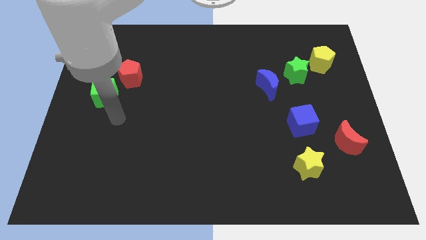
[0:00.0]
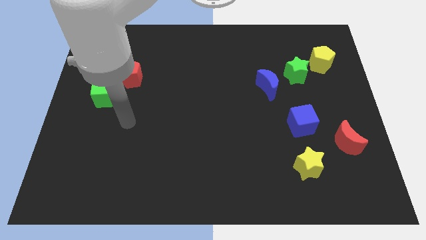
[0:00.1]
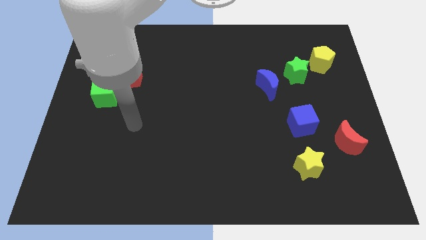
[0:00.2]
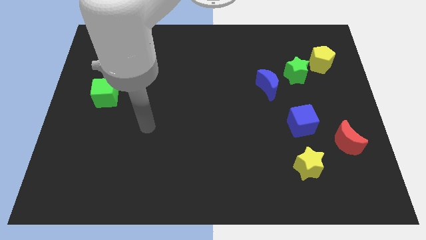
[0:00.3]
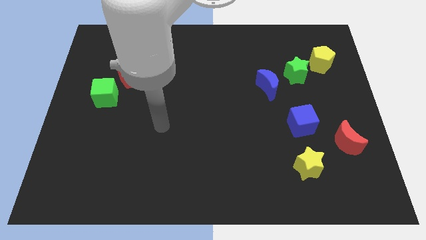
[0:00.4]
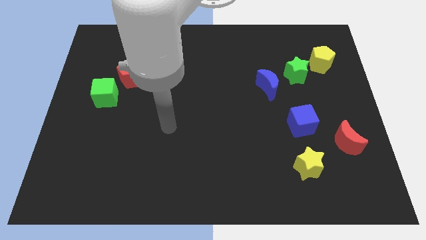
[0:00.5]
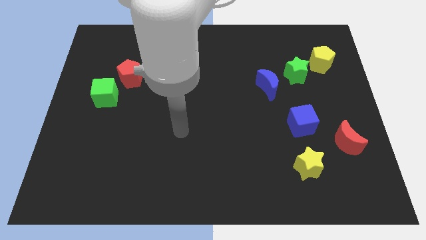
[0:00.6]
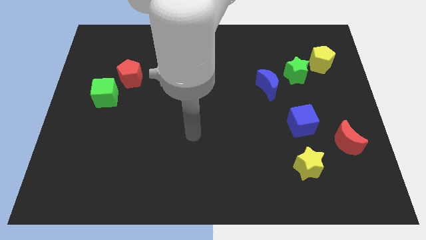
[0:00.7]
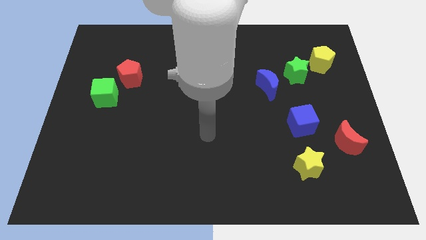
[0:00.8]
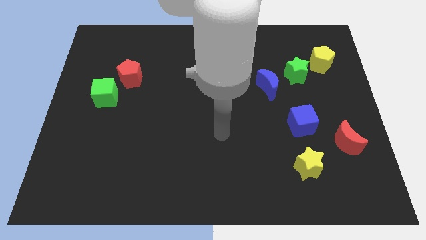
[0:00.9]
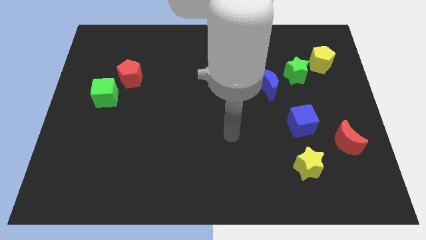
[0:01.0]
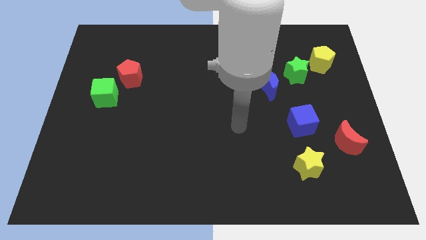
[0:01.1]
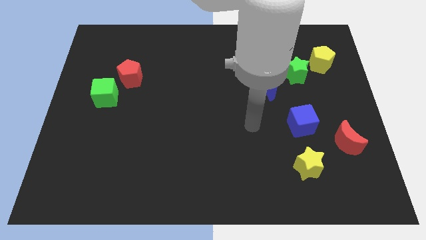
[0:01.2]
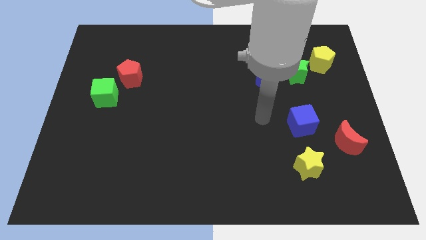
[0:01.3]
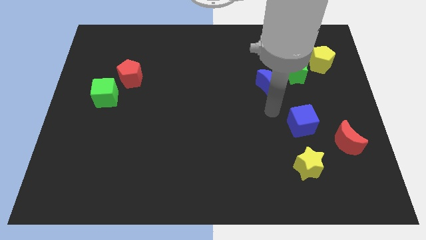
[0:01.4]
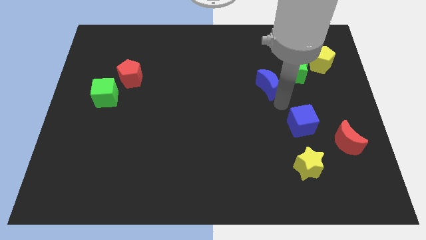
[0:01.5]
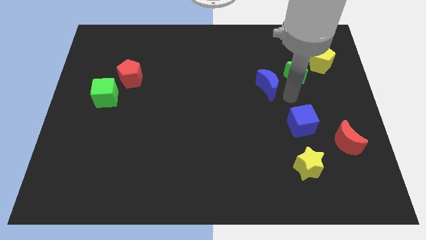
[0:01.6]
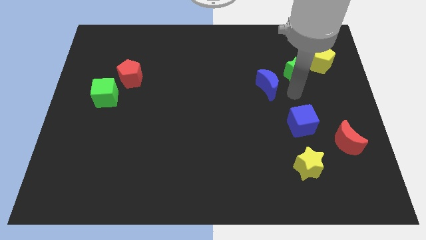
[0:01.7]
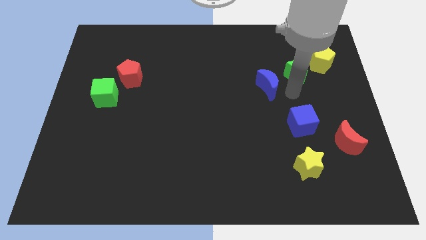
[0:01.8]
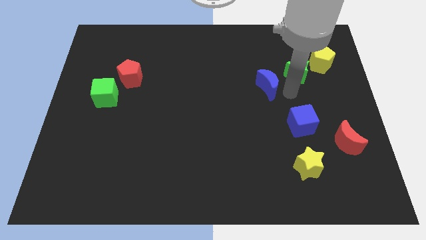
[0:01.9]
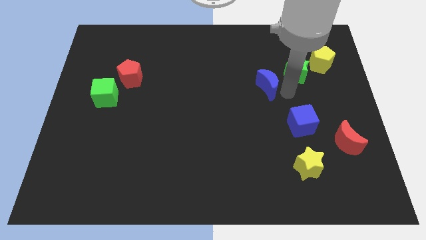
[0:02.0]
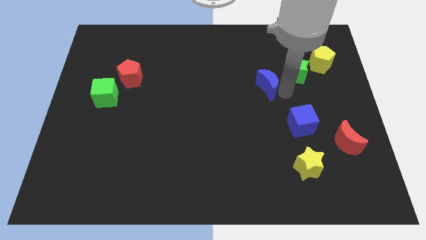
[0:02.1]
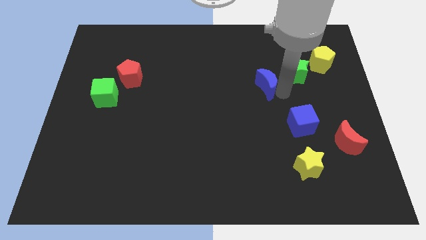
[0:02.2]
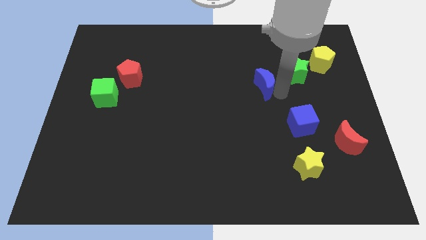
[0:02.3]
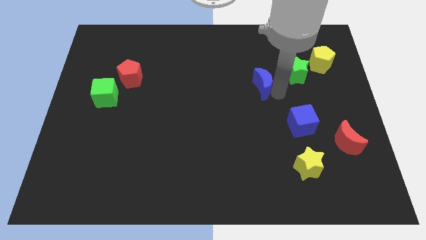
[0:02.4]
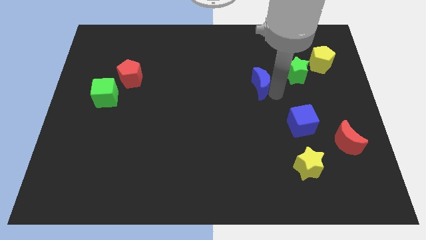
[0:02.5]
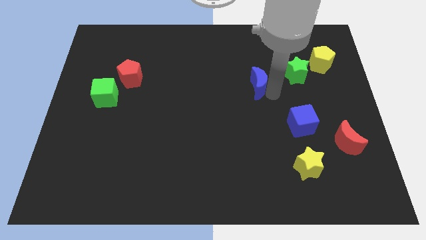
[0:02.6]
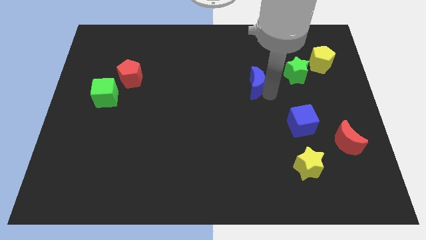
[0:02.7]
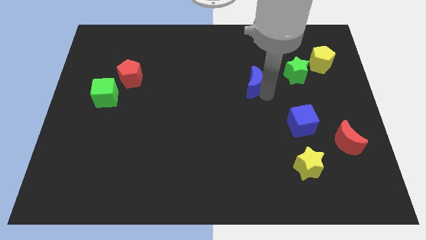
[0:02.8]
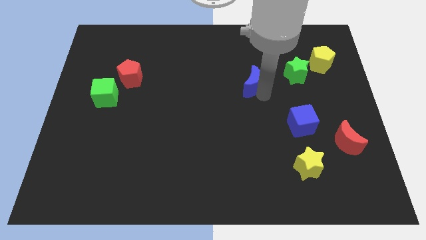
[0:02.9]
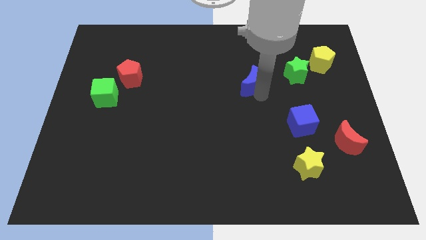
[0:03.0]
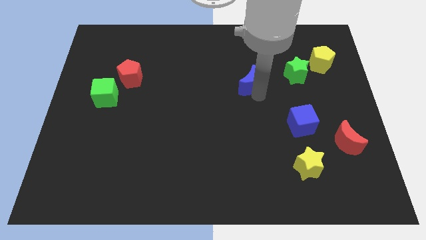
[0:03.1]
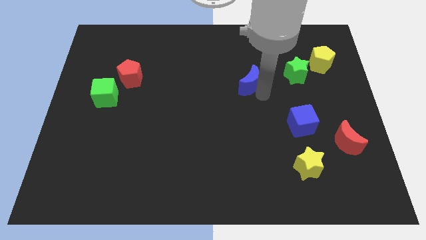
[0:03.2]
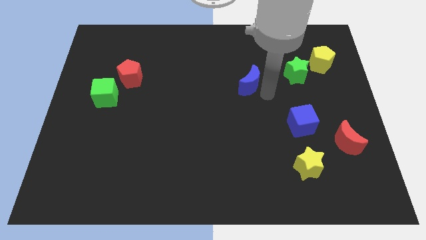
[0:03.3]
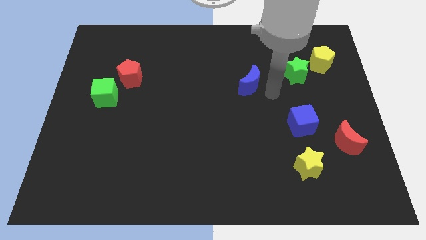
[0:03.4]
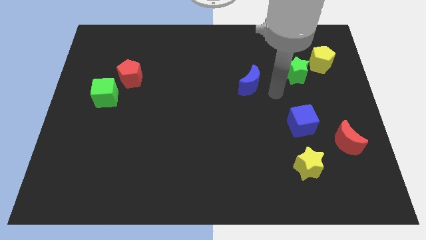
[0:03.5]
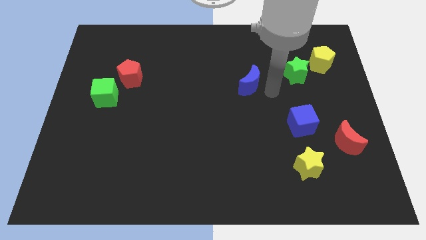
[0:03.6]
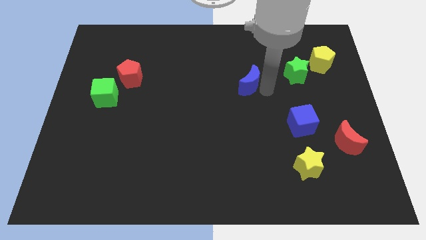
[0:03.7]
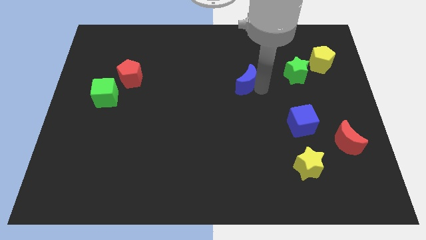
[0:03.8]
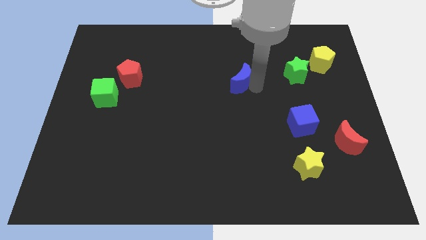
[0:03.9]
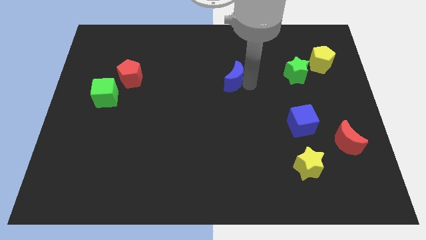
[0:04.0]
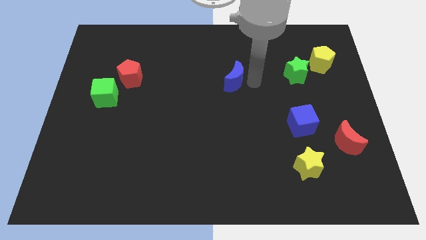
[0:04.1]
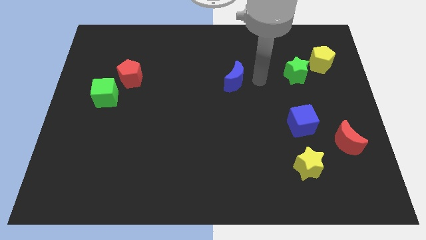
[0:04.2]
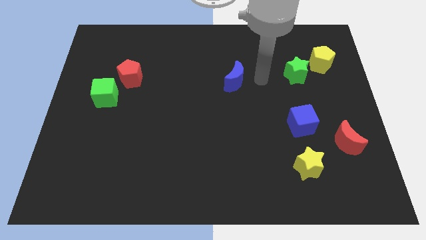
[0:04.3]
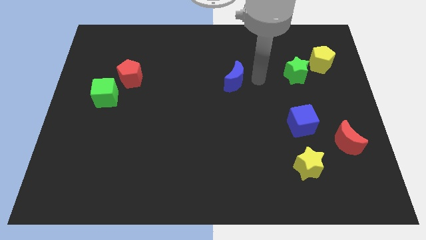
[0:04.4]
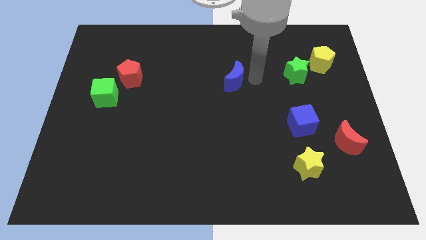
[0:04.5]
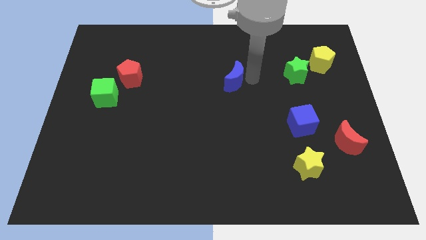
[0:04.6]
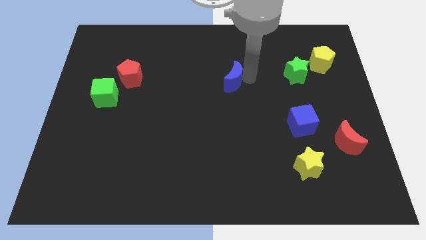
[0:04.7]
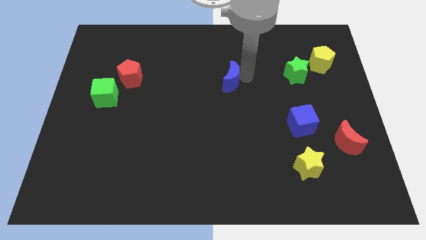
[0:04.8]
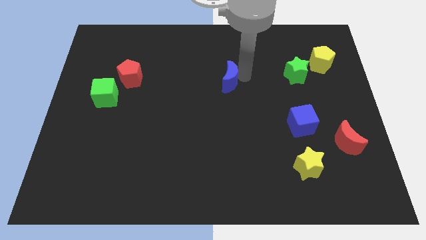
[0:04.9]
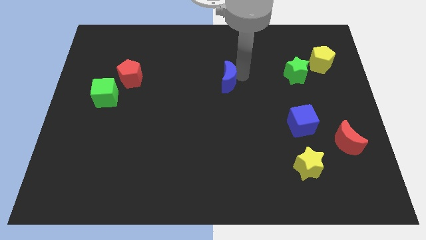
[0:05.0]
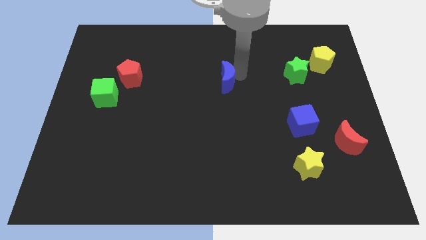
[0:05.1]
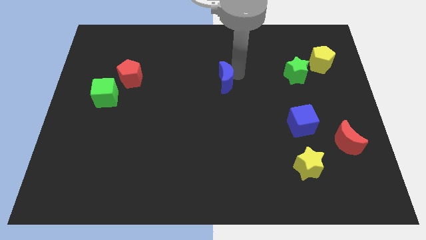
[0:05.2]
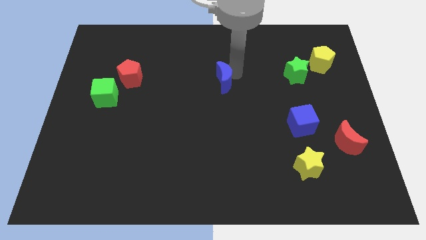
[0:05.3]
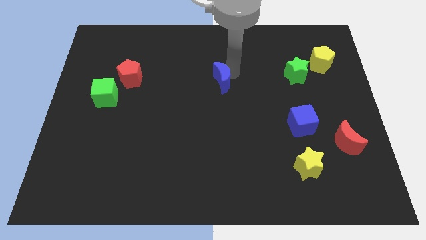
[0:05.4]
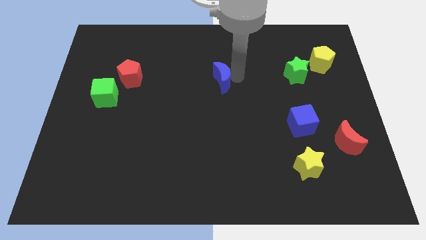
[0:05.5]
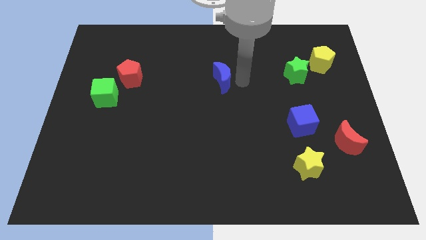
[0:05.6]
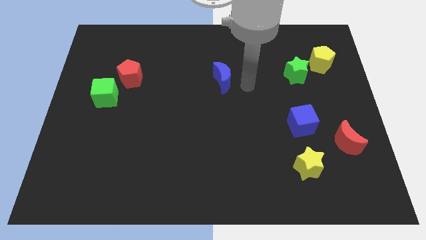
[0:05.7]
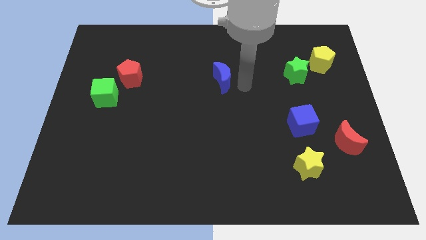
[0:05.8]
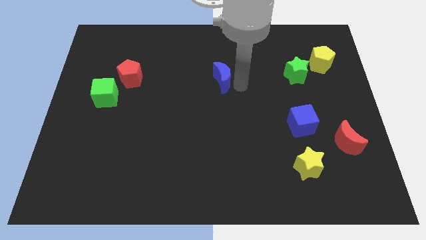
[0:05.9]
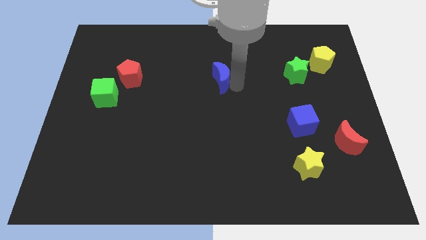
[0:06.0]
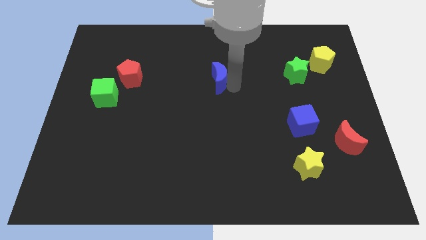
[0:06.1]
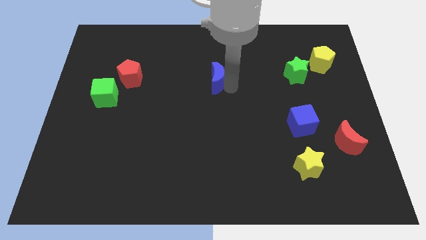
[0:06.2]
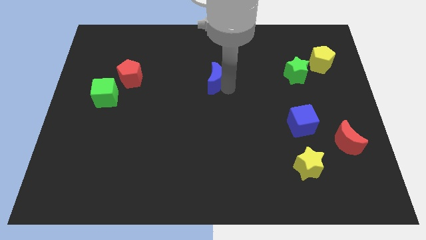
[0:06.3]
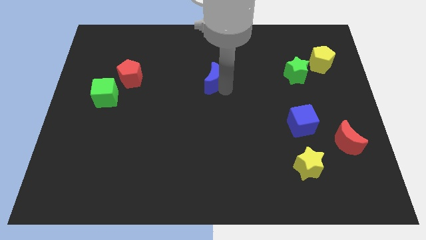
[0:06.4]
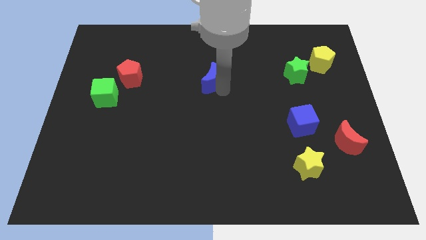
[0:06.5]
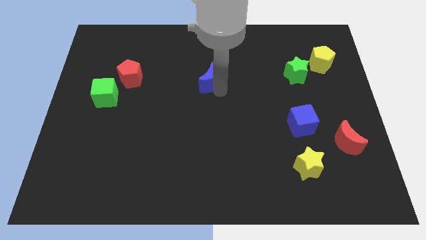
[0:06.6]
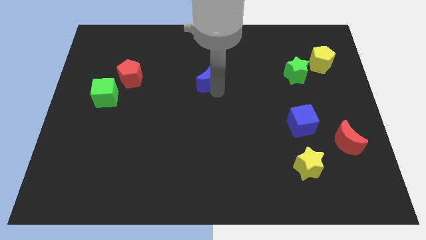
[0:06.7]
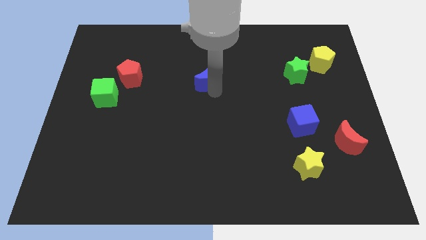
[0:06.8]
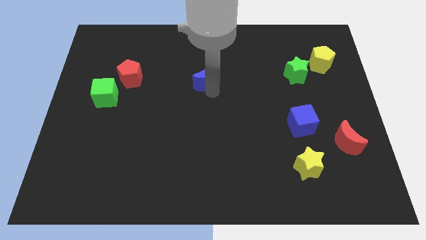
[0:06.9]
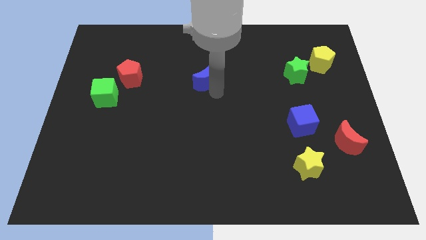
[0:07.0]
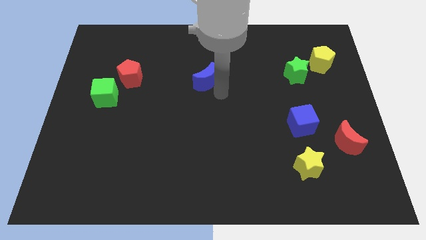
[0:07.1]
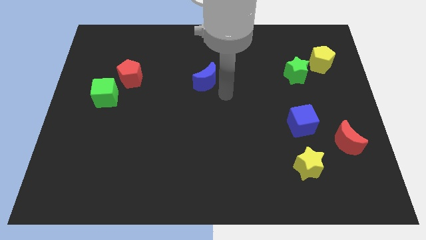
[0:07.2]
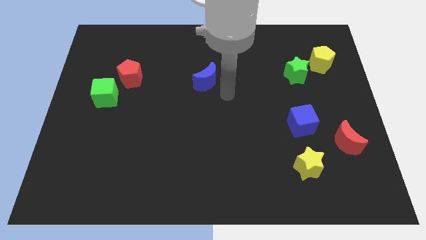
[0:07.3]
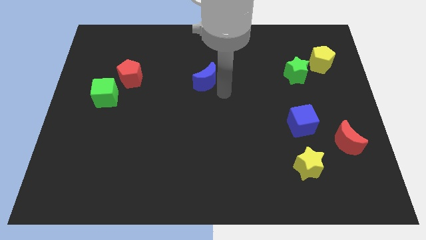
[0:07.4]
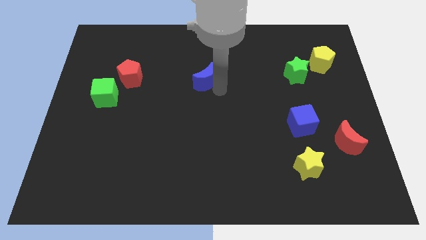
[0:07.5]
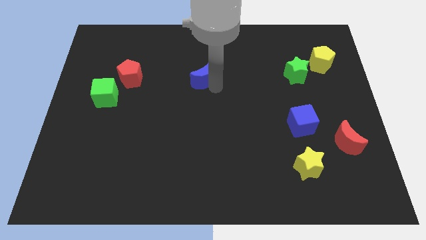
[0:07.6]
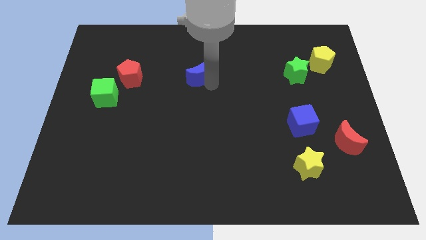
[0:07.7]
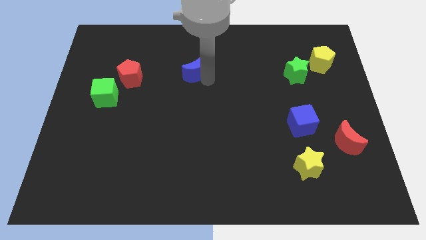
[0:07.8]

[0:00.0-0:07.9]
push the blue moon right of the red pentagon
